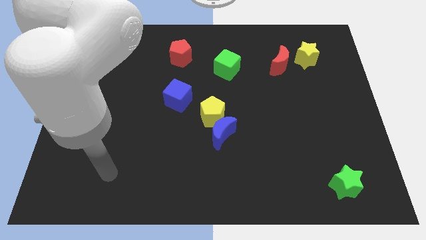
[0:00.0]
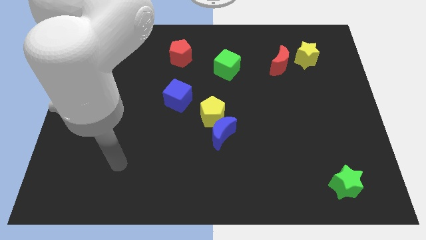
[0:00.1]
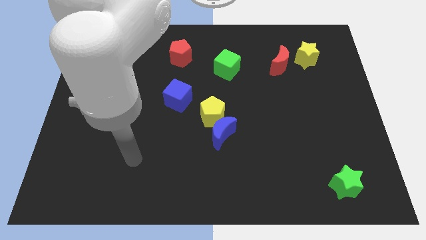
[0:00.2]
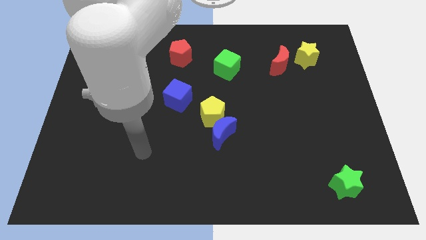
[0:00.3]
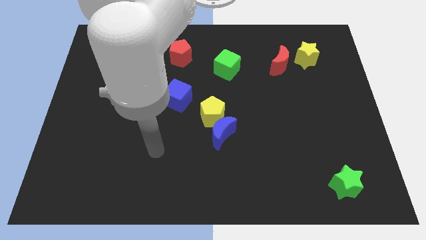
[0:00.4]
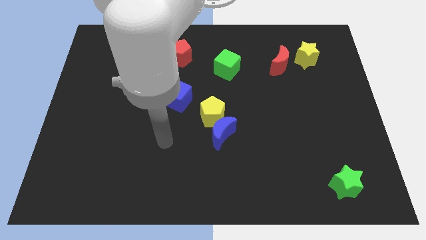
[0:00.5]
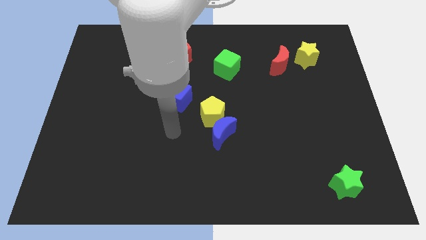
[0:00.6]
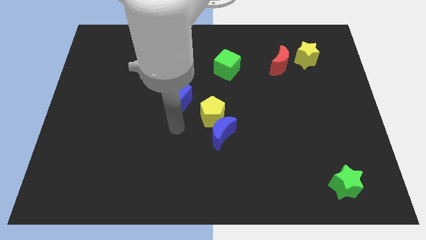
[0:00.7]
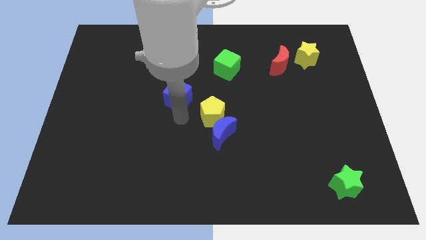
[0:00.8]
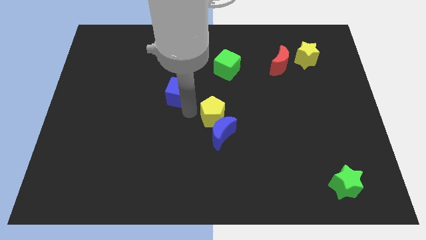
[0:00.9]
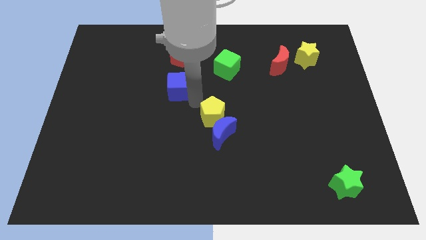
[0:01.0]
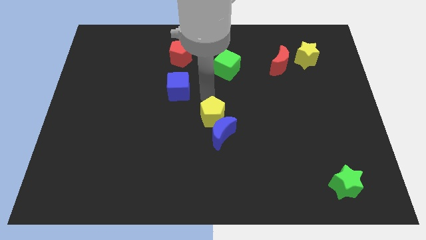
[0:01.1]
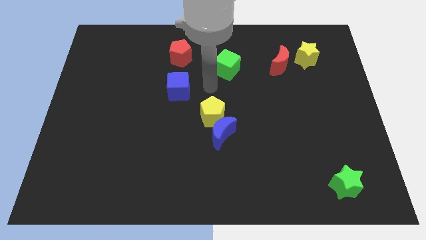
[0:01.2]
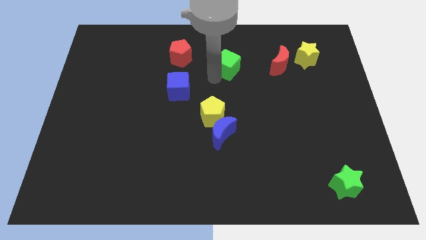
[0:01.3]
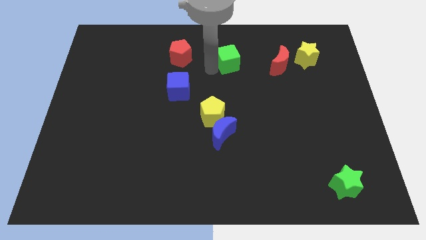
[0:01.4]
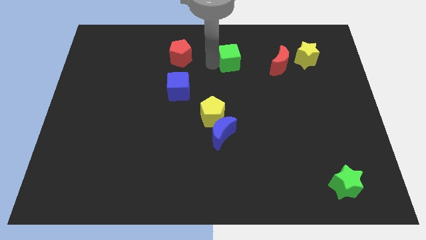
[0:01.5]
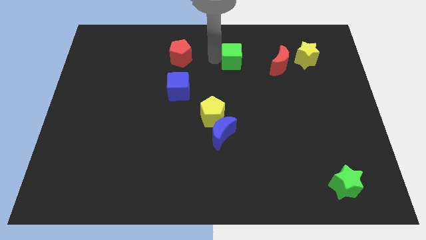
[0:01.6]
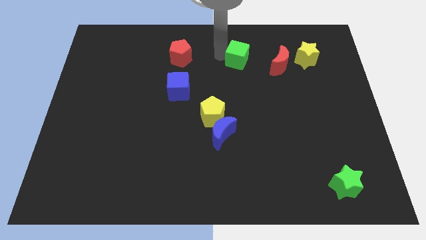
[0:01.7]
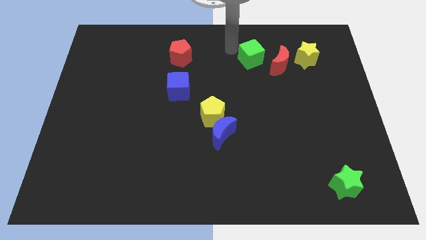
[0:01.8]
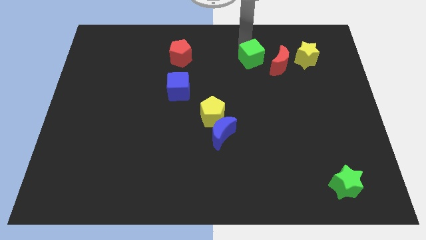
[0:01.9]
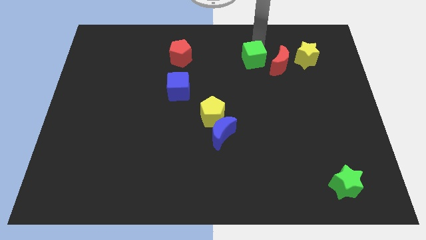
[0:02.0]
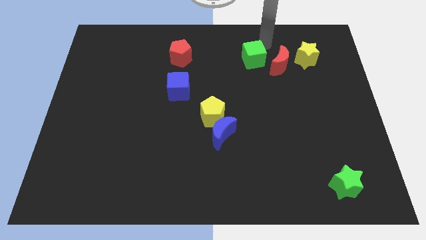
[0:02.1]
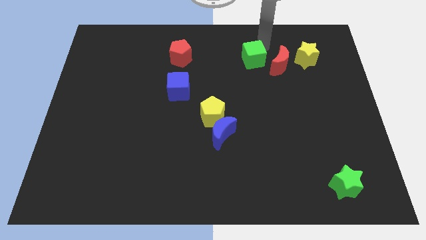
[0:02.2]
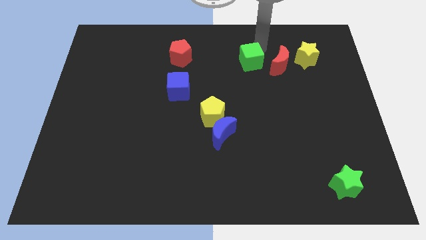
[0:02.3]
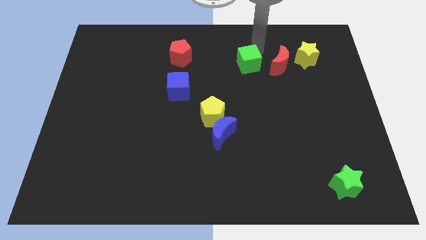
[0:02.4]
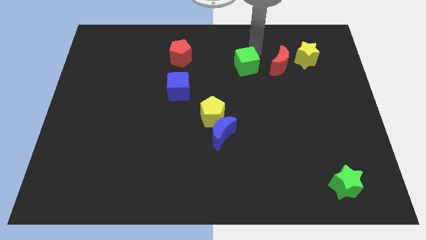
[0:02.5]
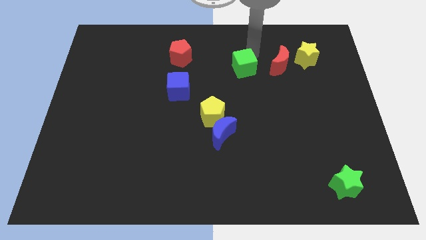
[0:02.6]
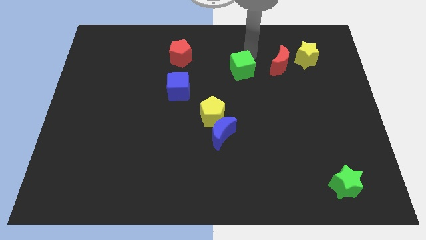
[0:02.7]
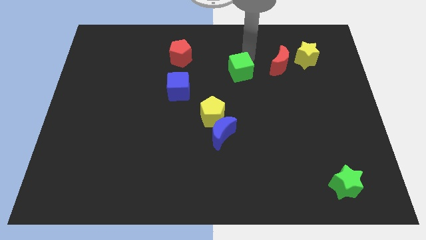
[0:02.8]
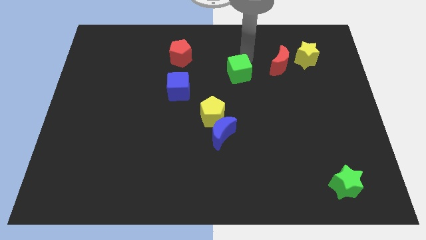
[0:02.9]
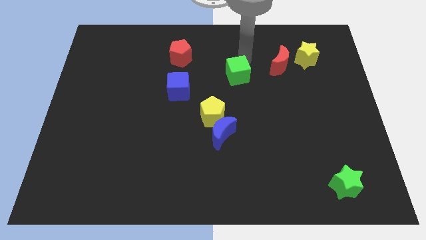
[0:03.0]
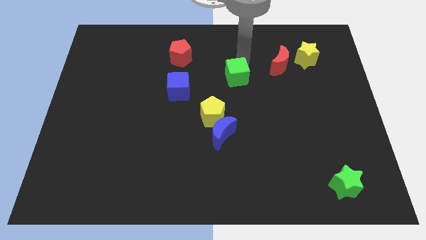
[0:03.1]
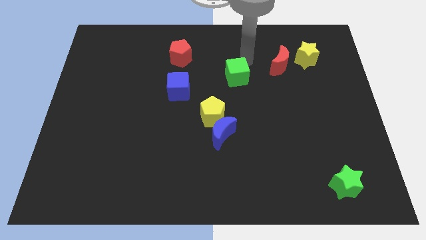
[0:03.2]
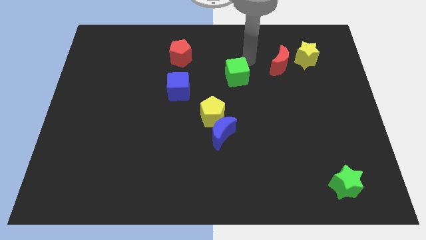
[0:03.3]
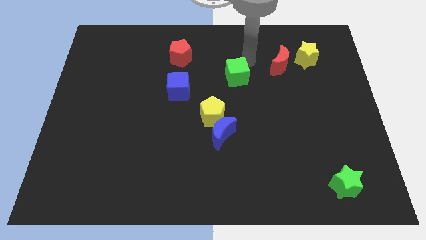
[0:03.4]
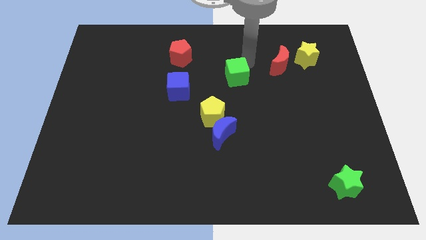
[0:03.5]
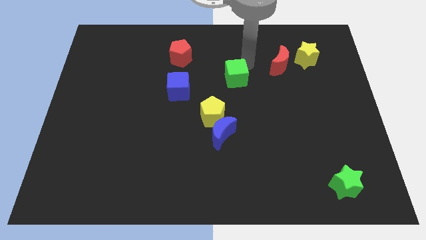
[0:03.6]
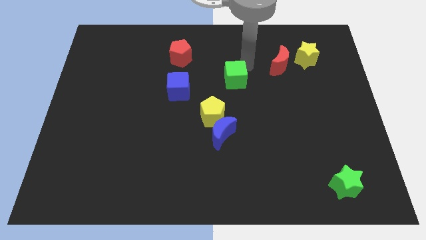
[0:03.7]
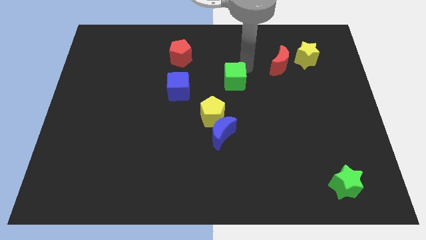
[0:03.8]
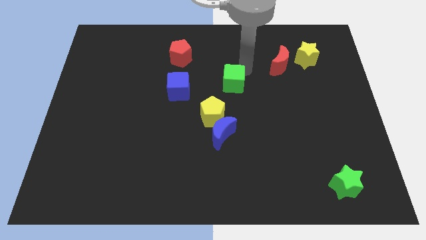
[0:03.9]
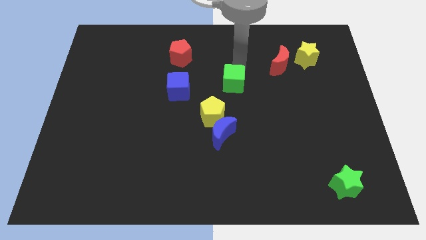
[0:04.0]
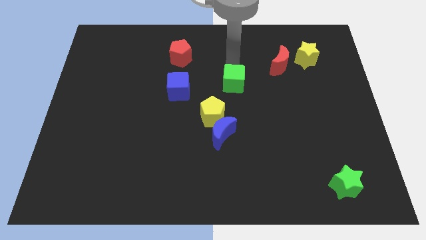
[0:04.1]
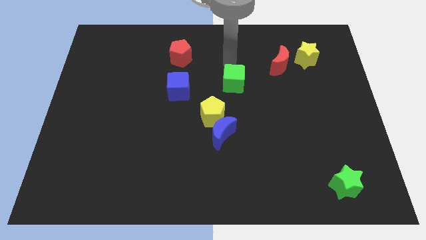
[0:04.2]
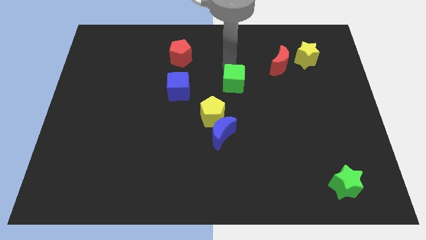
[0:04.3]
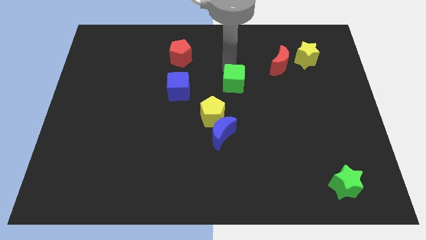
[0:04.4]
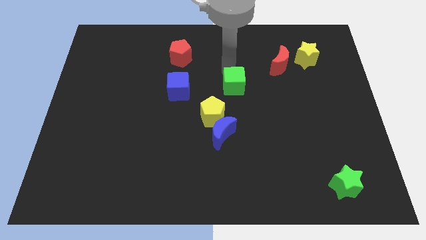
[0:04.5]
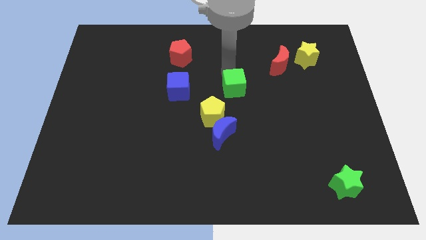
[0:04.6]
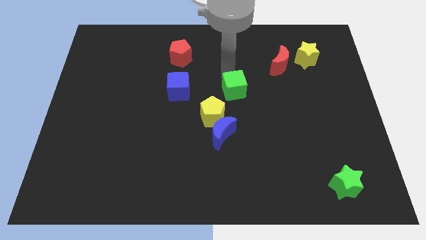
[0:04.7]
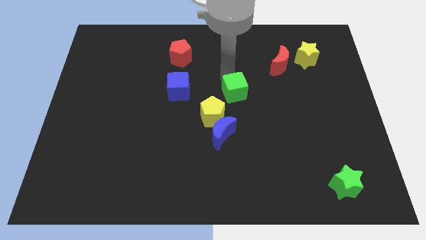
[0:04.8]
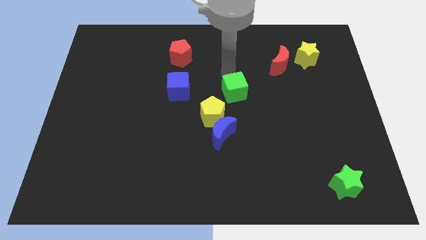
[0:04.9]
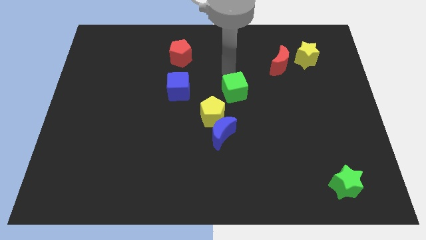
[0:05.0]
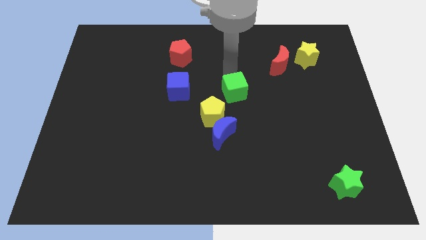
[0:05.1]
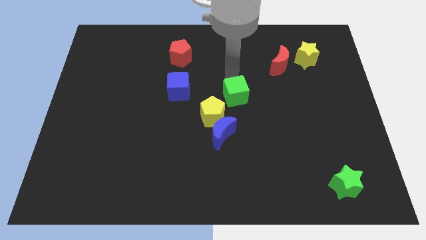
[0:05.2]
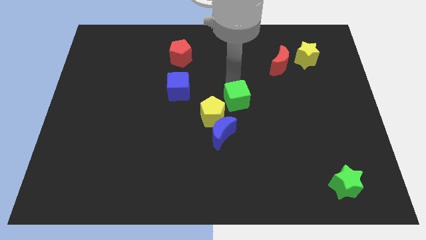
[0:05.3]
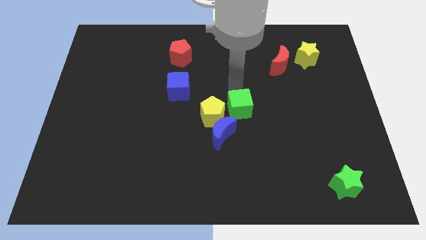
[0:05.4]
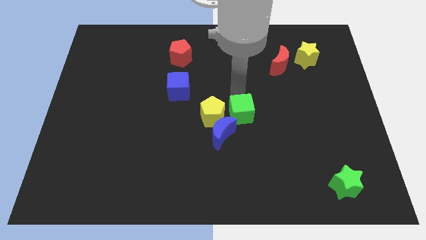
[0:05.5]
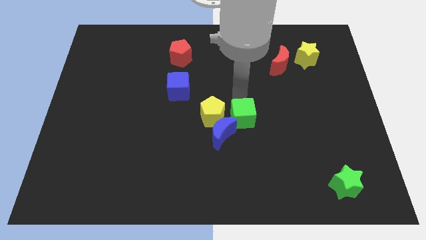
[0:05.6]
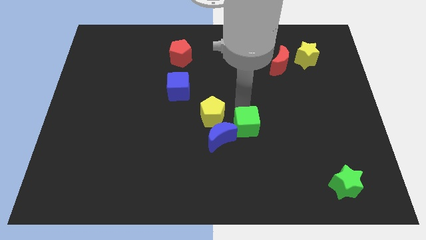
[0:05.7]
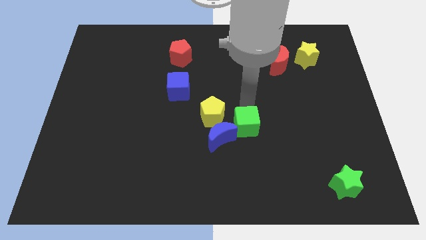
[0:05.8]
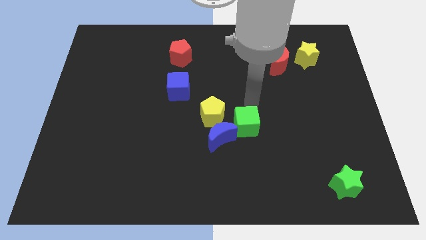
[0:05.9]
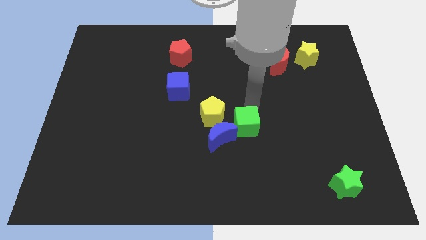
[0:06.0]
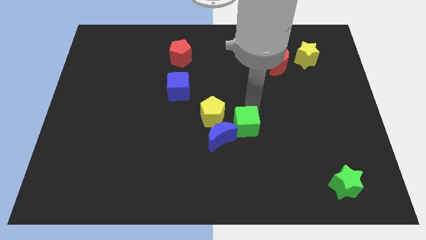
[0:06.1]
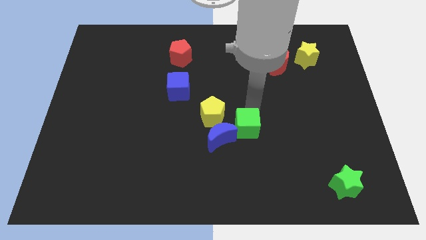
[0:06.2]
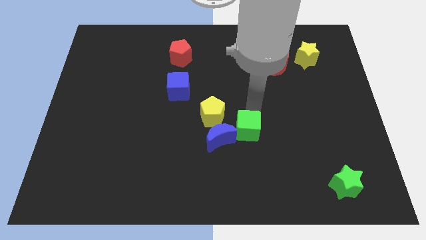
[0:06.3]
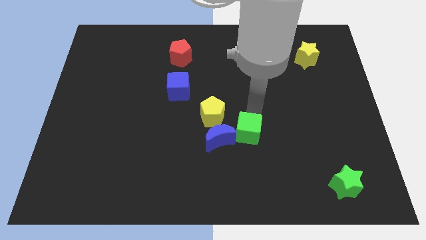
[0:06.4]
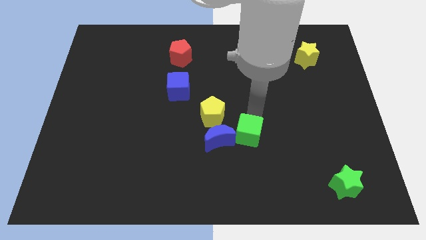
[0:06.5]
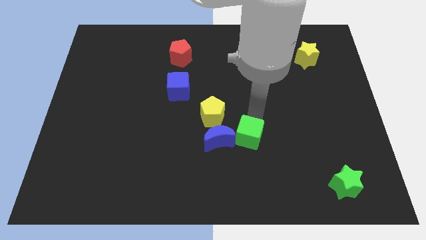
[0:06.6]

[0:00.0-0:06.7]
slide the green cube downwards

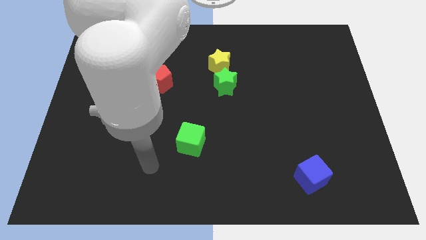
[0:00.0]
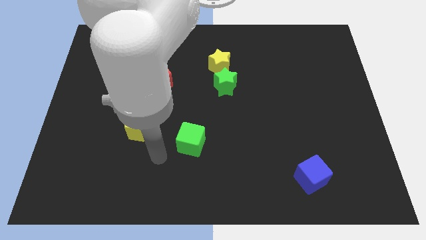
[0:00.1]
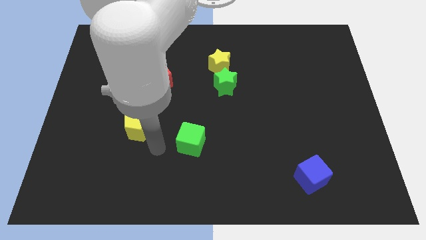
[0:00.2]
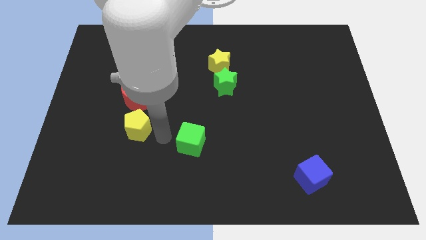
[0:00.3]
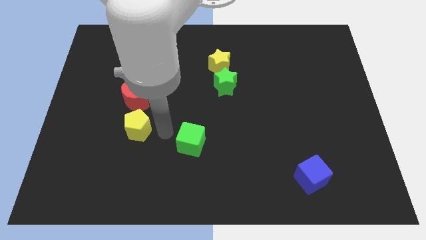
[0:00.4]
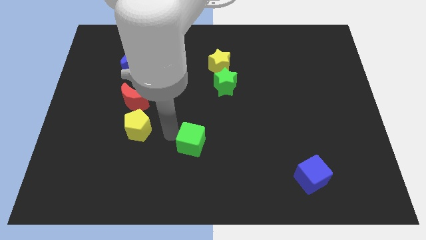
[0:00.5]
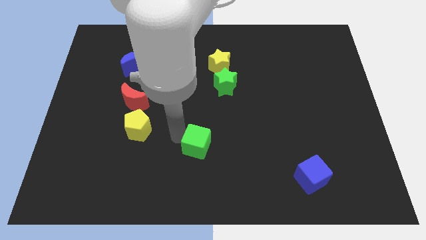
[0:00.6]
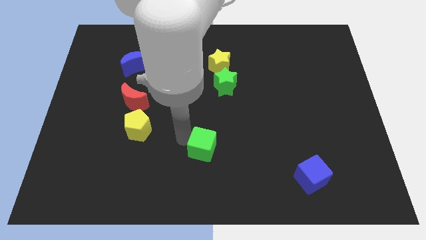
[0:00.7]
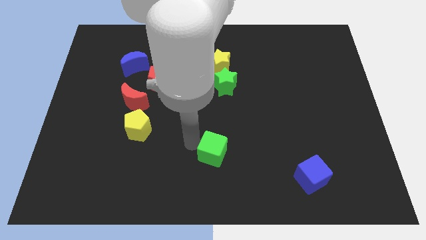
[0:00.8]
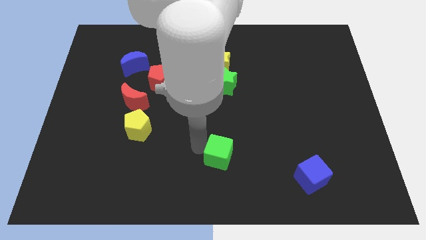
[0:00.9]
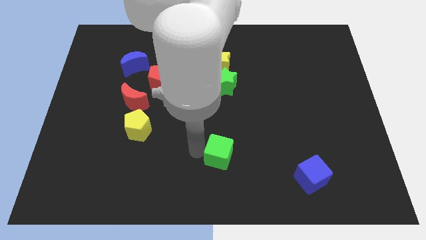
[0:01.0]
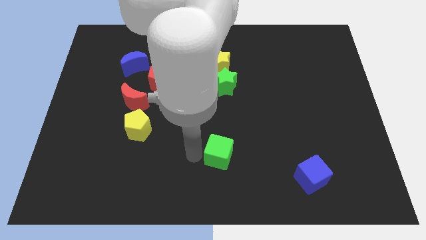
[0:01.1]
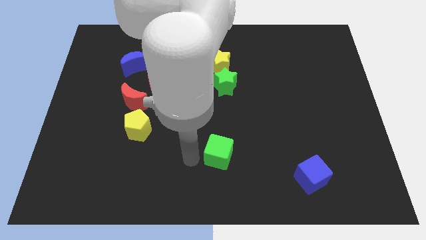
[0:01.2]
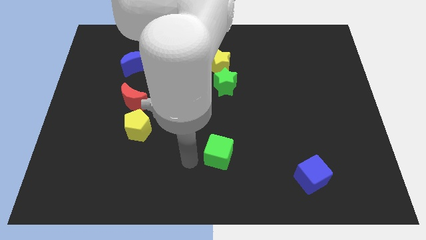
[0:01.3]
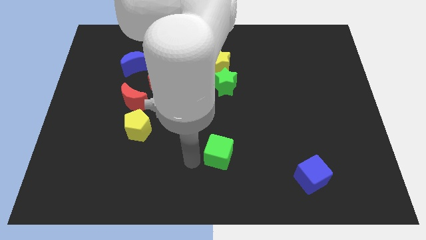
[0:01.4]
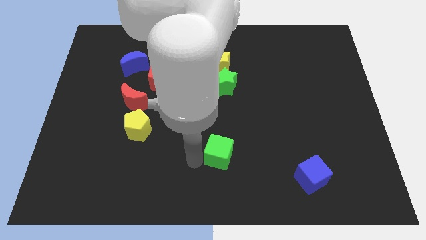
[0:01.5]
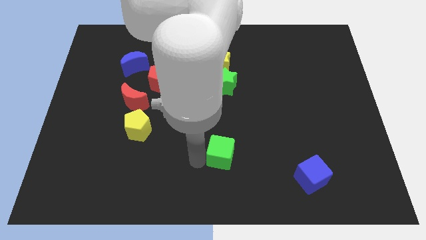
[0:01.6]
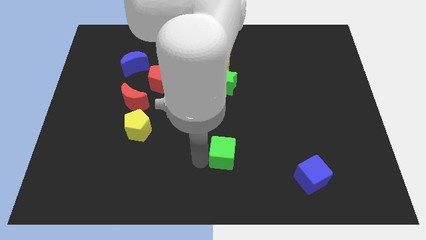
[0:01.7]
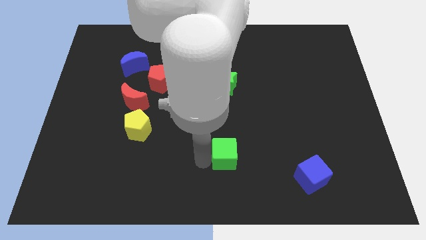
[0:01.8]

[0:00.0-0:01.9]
move the green cube to the right slightly
